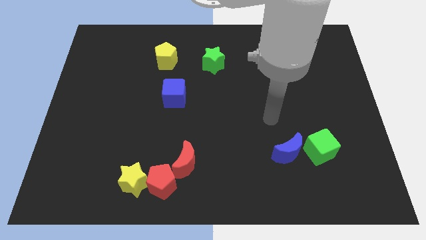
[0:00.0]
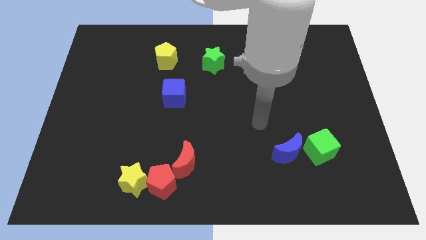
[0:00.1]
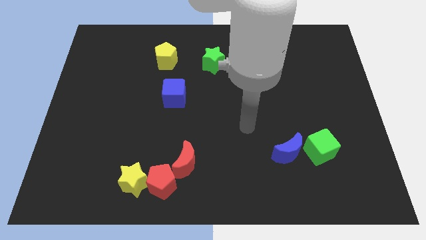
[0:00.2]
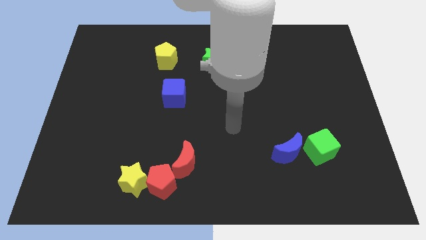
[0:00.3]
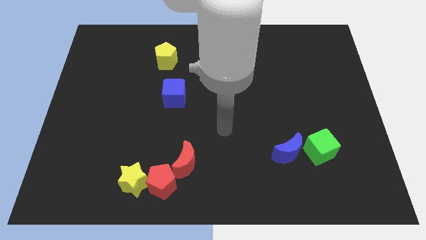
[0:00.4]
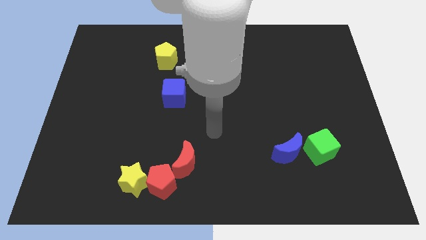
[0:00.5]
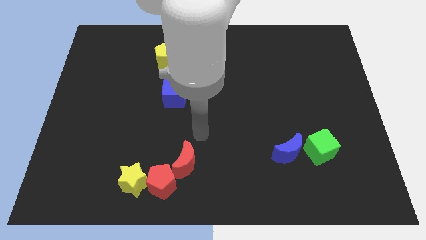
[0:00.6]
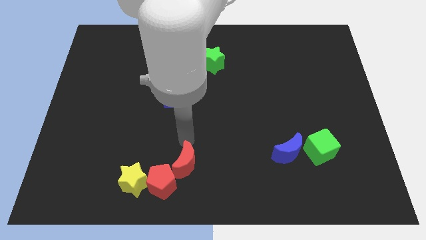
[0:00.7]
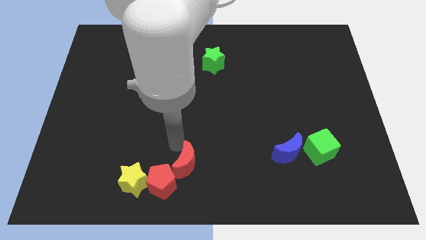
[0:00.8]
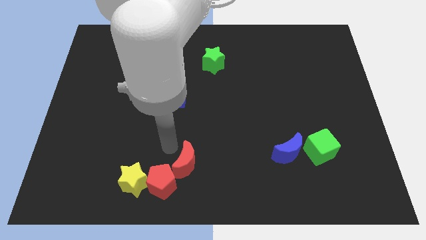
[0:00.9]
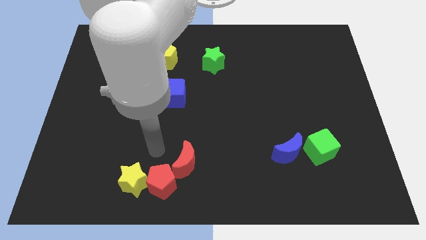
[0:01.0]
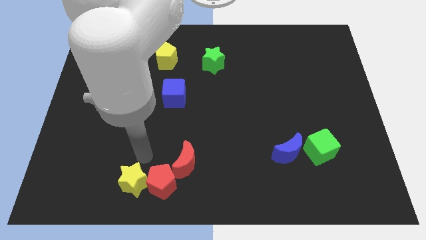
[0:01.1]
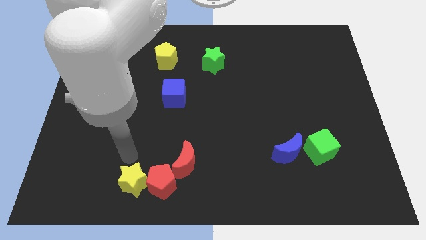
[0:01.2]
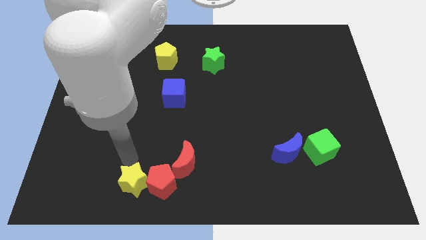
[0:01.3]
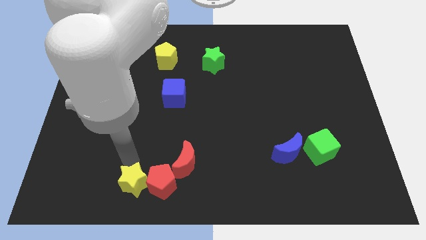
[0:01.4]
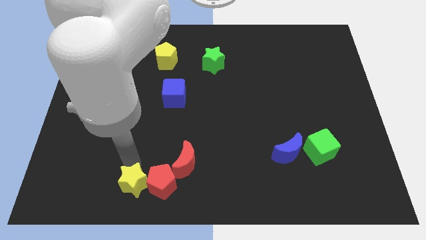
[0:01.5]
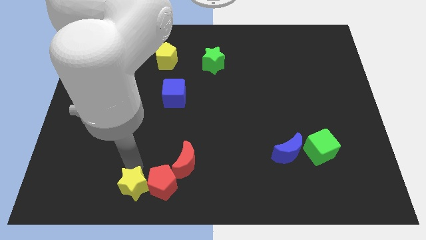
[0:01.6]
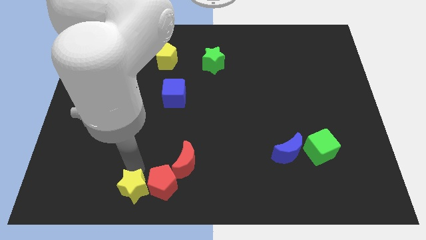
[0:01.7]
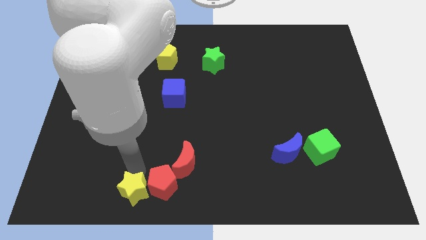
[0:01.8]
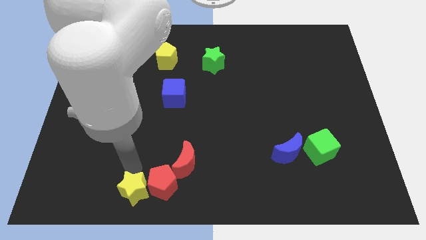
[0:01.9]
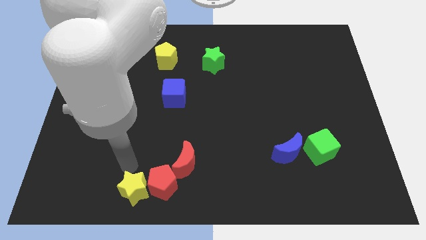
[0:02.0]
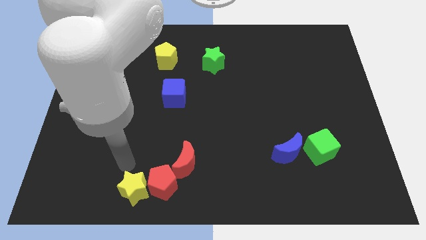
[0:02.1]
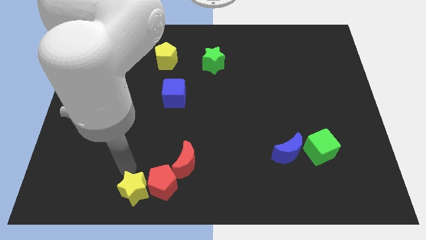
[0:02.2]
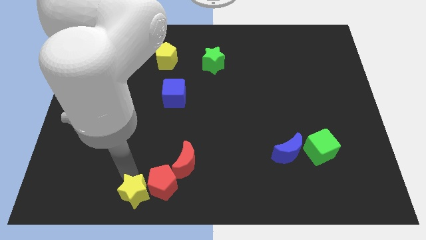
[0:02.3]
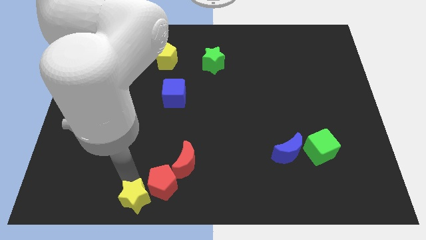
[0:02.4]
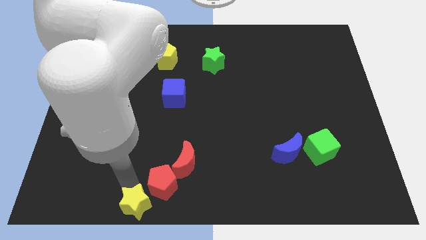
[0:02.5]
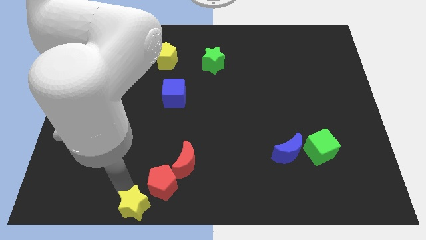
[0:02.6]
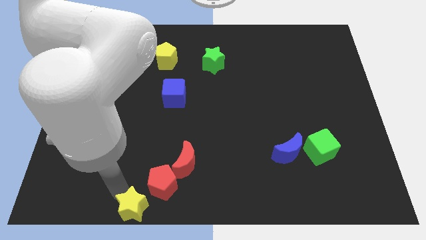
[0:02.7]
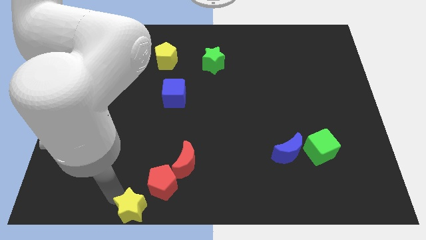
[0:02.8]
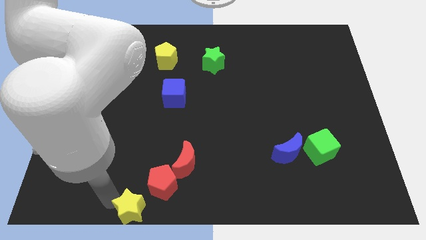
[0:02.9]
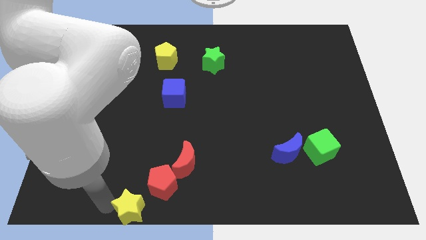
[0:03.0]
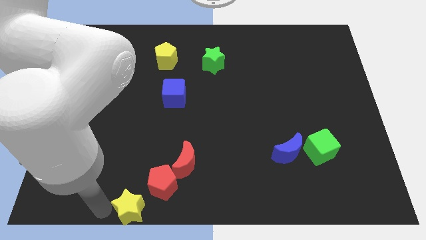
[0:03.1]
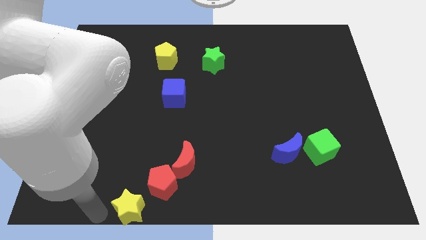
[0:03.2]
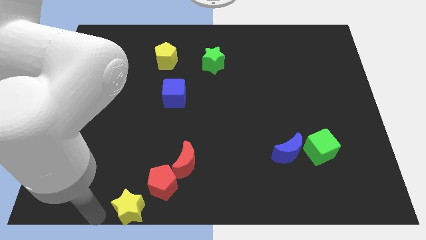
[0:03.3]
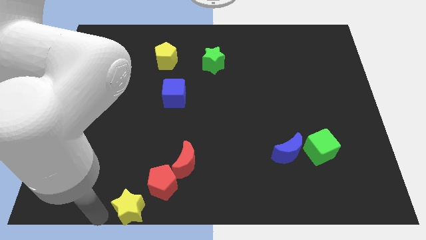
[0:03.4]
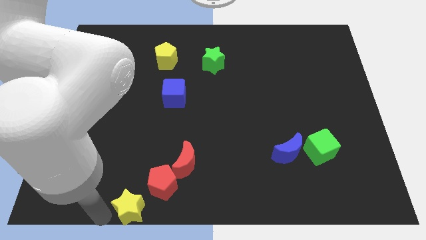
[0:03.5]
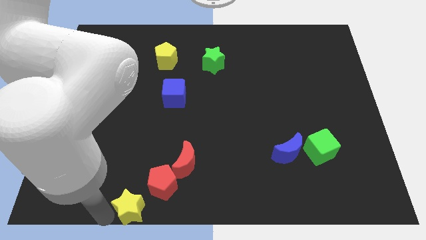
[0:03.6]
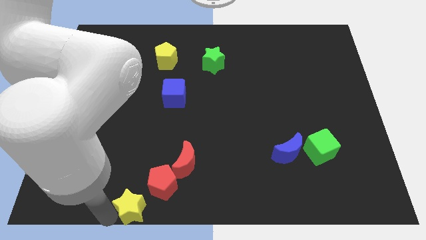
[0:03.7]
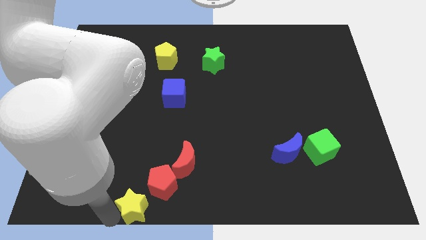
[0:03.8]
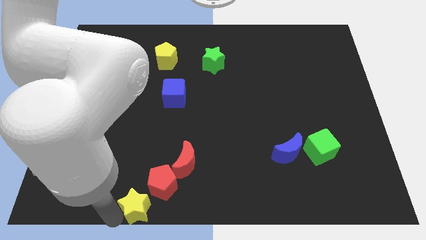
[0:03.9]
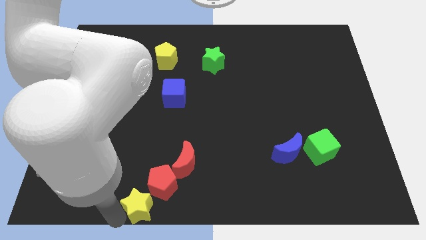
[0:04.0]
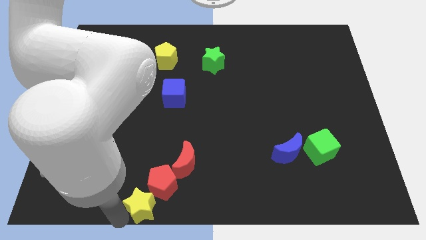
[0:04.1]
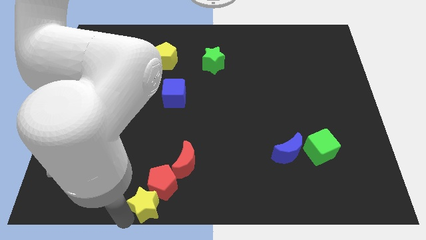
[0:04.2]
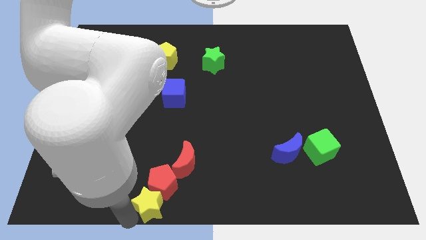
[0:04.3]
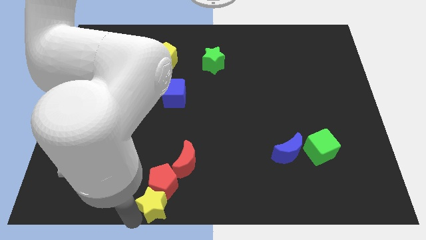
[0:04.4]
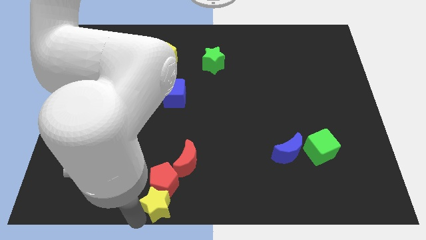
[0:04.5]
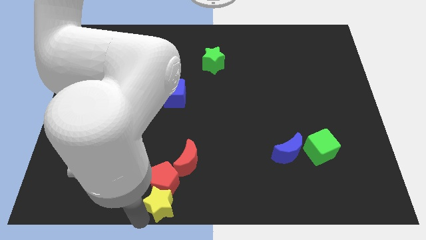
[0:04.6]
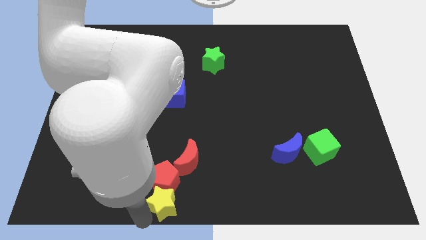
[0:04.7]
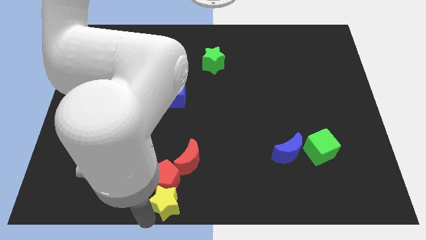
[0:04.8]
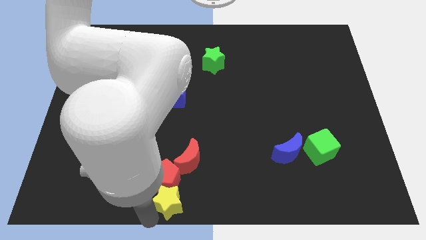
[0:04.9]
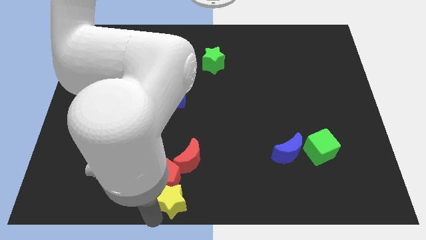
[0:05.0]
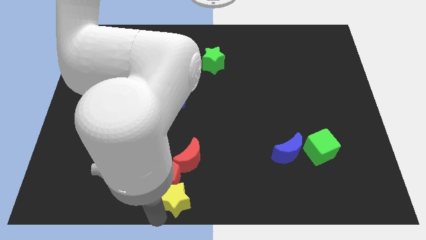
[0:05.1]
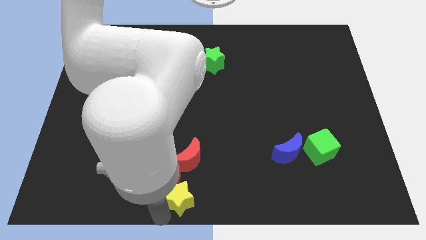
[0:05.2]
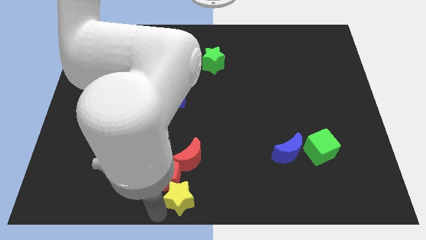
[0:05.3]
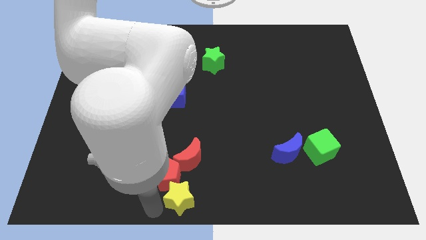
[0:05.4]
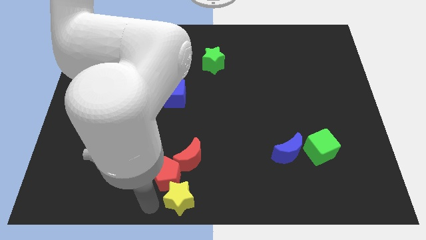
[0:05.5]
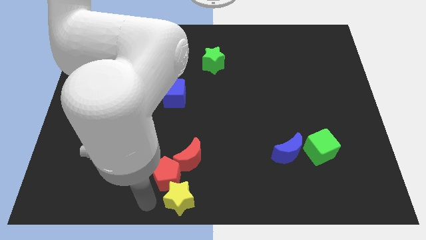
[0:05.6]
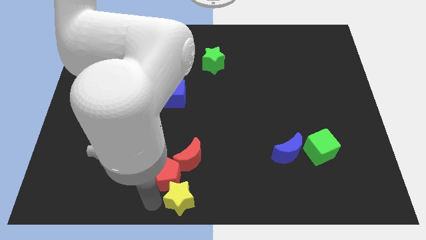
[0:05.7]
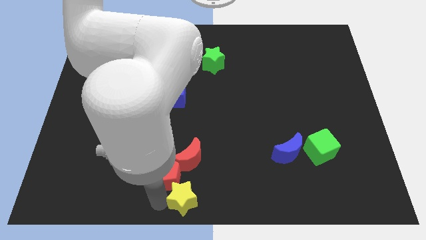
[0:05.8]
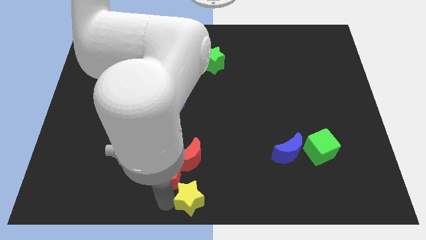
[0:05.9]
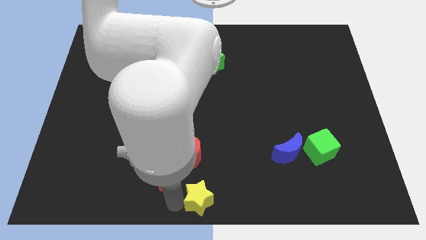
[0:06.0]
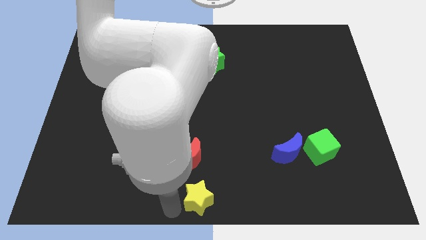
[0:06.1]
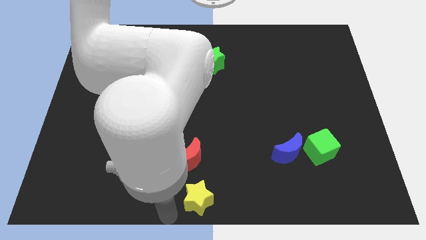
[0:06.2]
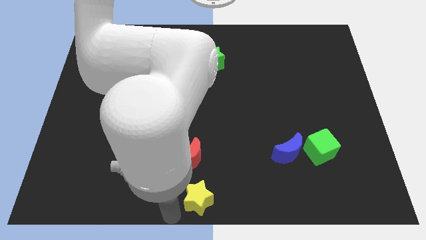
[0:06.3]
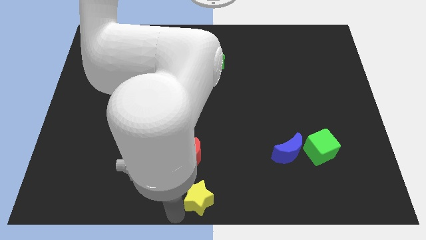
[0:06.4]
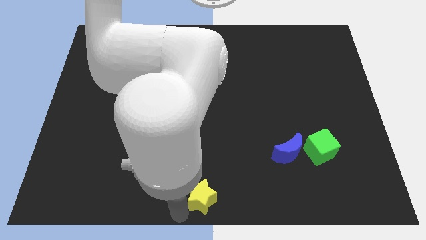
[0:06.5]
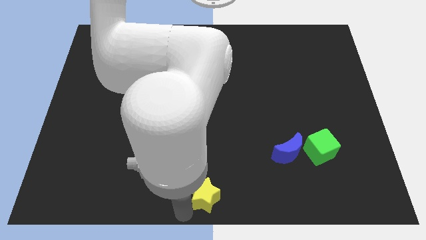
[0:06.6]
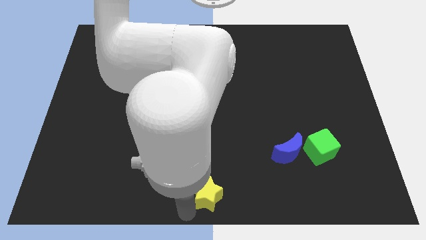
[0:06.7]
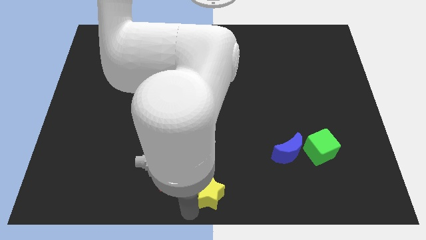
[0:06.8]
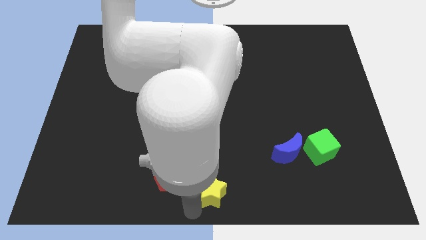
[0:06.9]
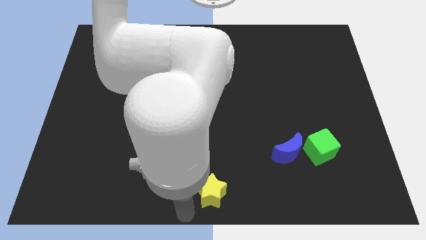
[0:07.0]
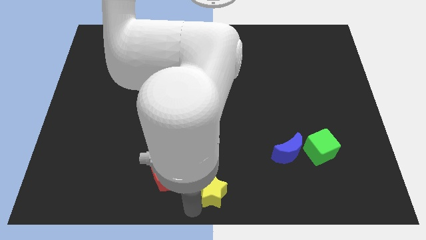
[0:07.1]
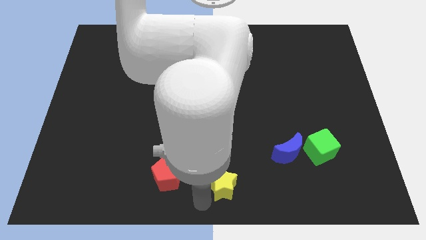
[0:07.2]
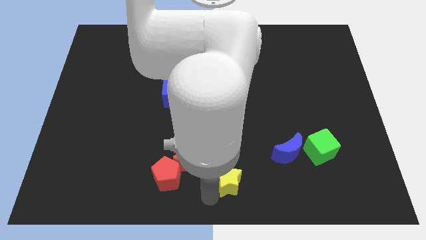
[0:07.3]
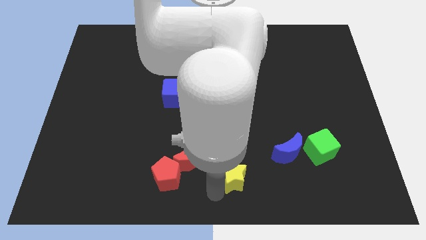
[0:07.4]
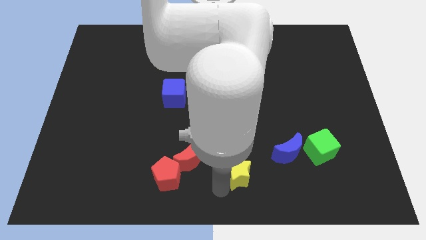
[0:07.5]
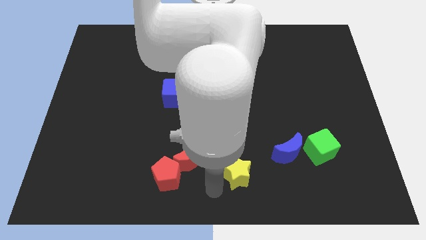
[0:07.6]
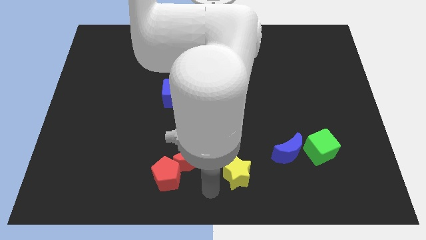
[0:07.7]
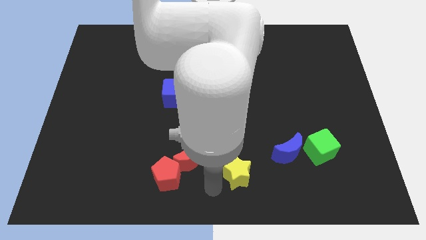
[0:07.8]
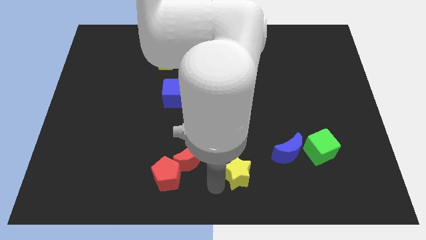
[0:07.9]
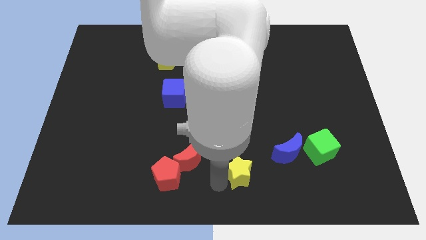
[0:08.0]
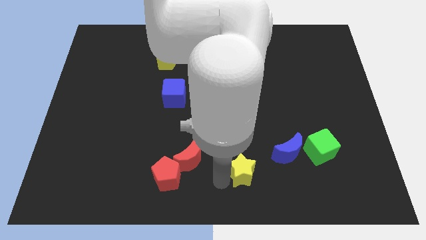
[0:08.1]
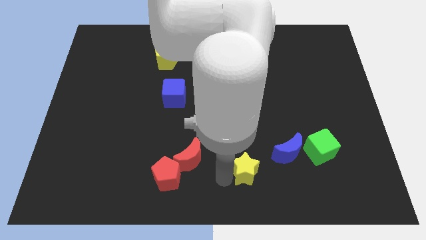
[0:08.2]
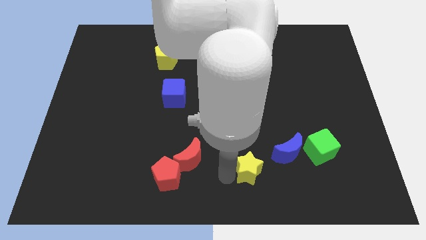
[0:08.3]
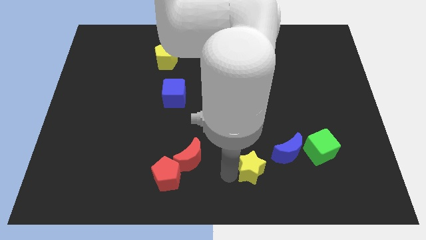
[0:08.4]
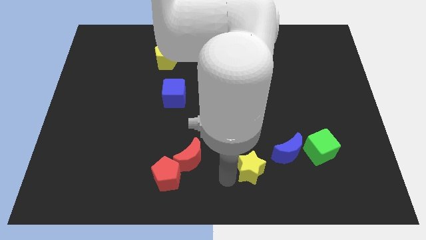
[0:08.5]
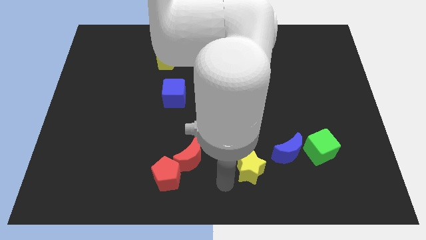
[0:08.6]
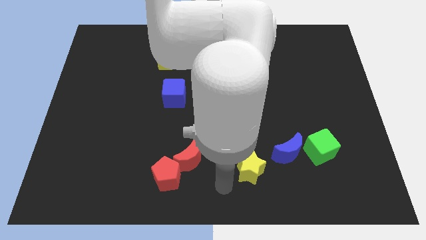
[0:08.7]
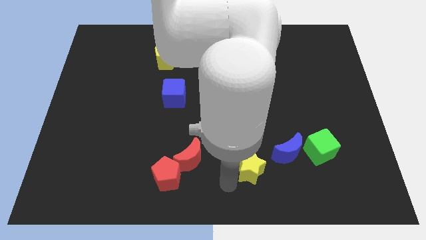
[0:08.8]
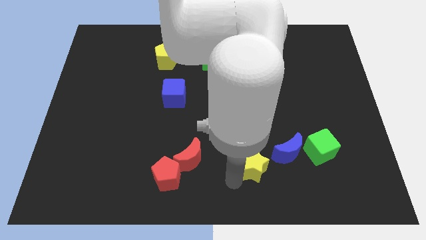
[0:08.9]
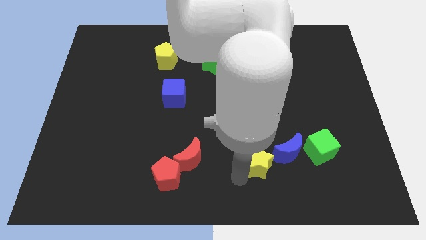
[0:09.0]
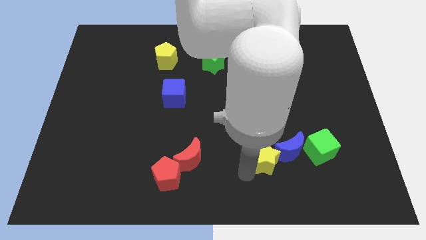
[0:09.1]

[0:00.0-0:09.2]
put the yellow star next to the blue moon
